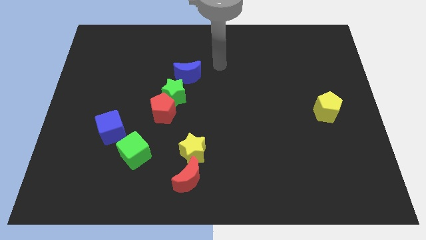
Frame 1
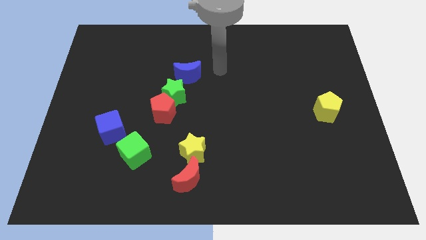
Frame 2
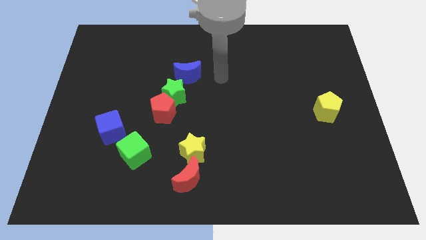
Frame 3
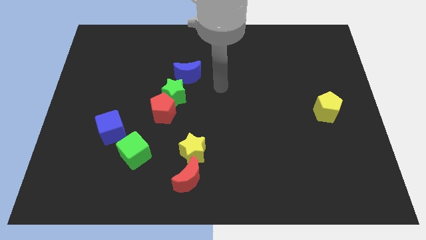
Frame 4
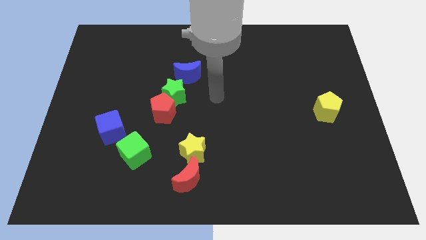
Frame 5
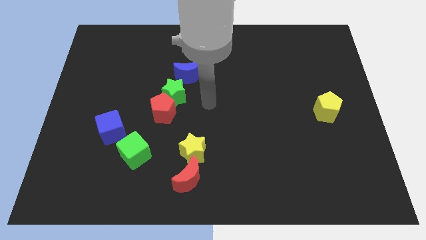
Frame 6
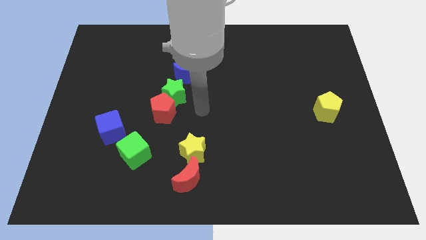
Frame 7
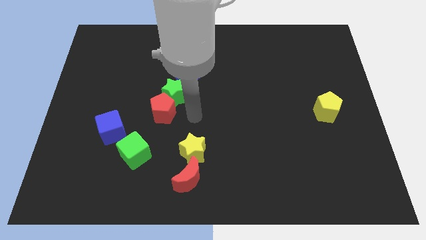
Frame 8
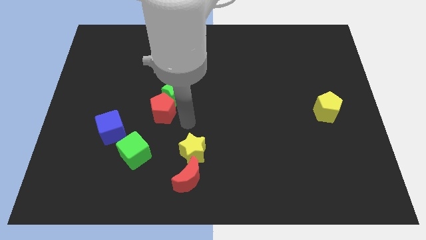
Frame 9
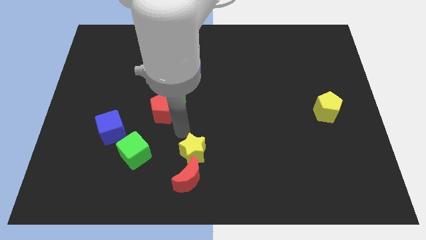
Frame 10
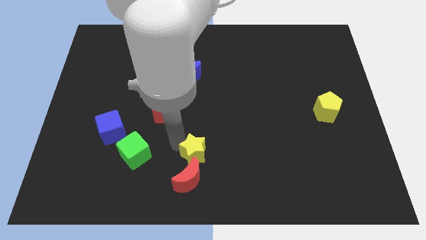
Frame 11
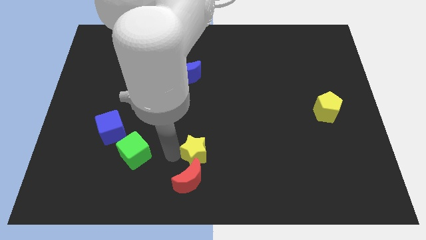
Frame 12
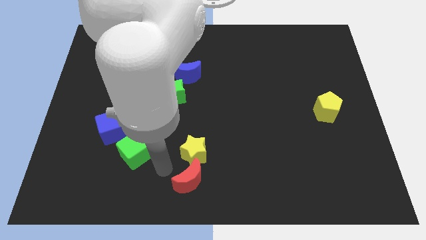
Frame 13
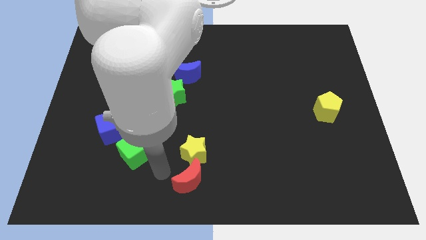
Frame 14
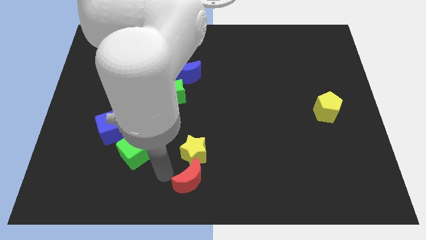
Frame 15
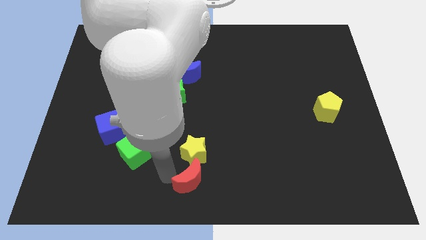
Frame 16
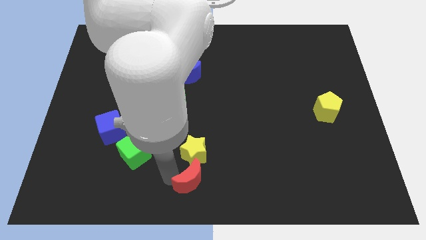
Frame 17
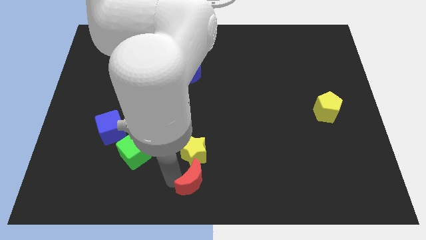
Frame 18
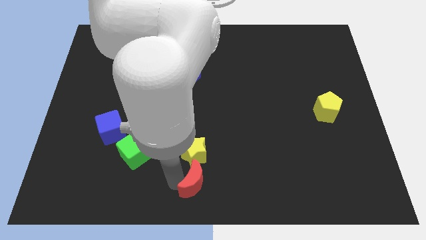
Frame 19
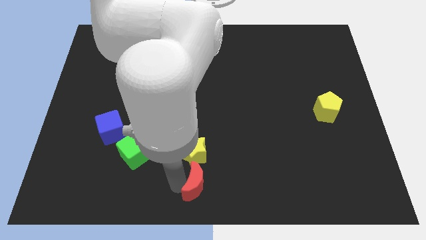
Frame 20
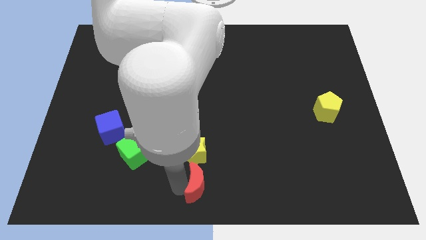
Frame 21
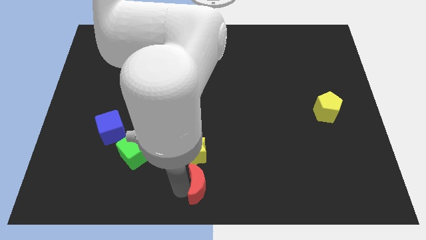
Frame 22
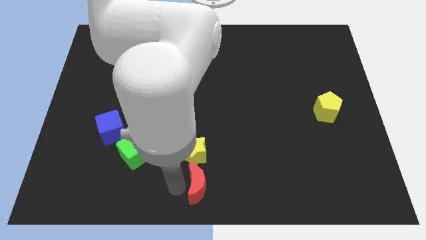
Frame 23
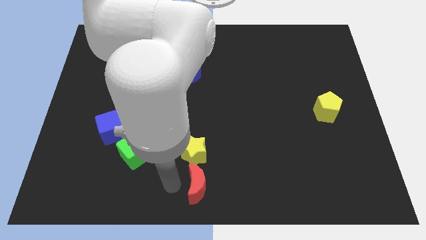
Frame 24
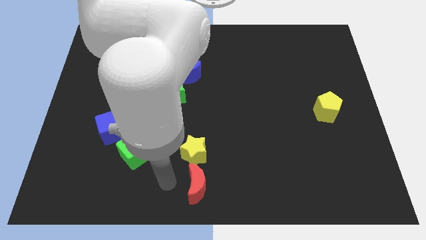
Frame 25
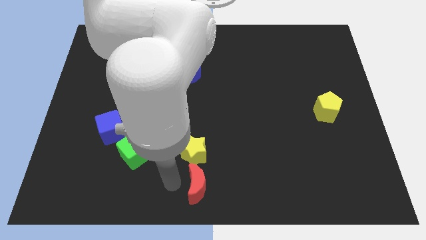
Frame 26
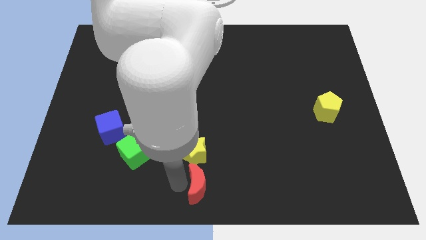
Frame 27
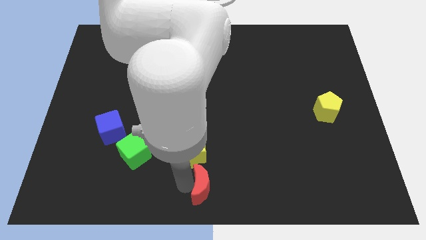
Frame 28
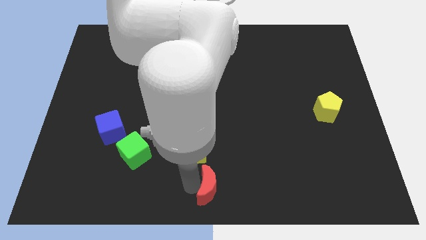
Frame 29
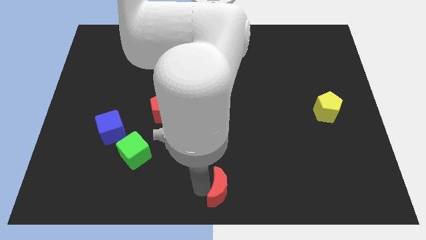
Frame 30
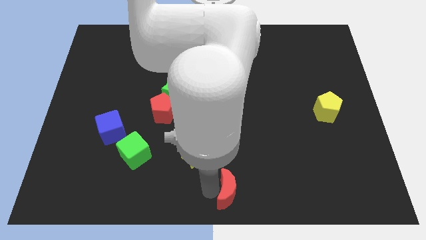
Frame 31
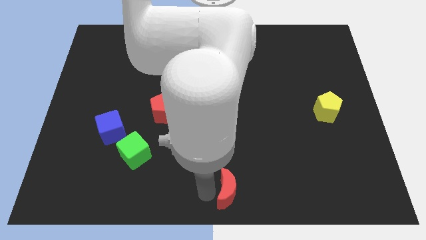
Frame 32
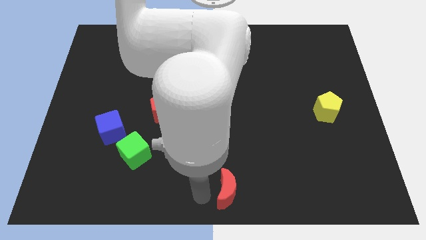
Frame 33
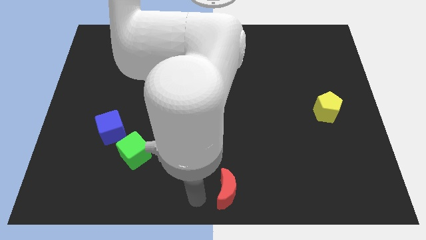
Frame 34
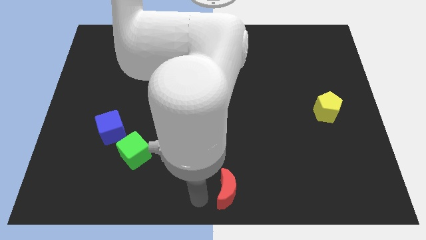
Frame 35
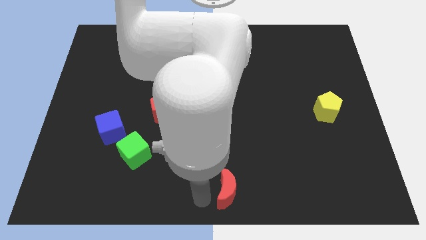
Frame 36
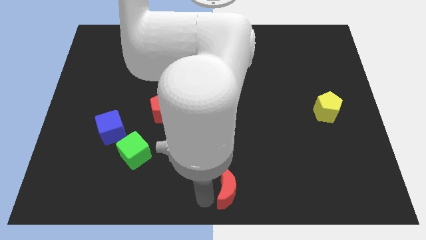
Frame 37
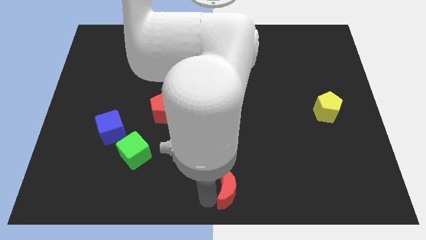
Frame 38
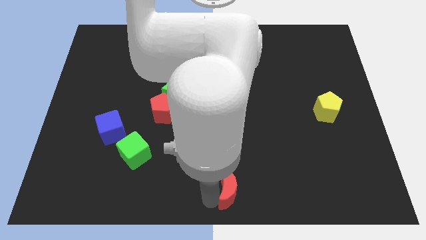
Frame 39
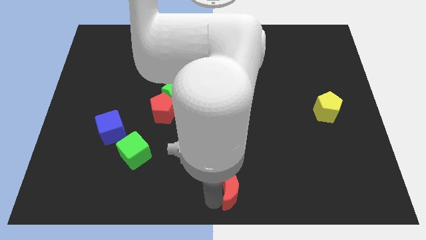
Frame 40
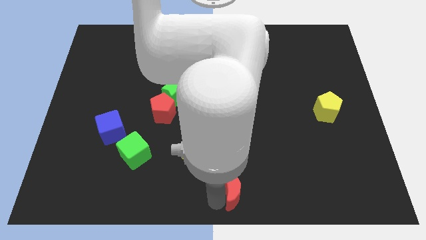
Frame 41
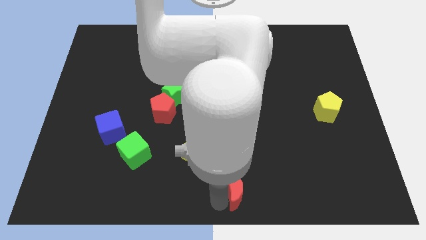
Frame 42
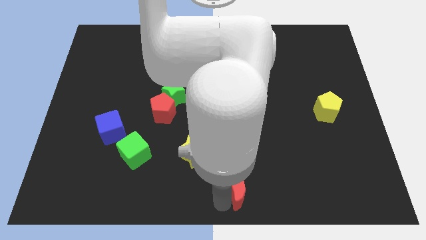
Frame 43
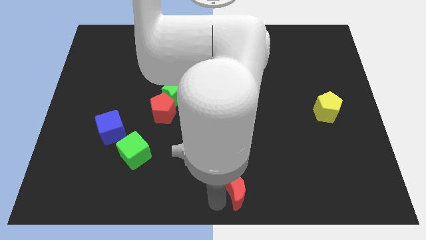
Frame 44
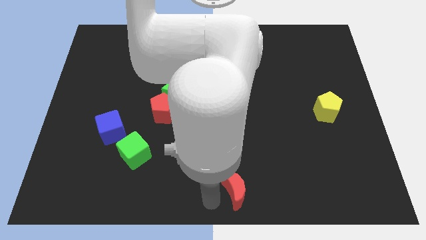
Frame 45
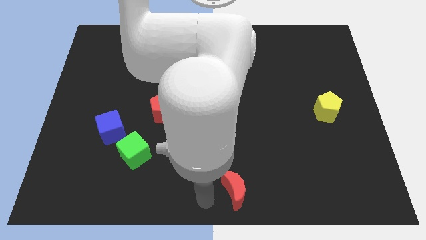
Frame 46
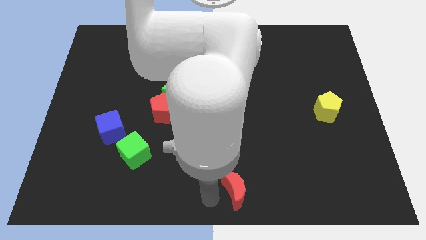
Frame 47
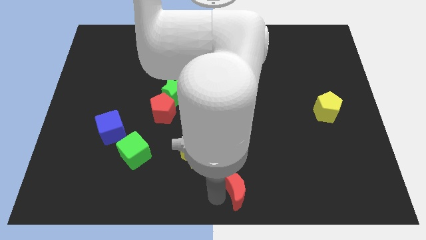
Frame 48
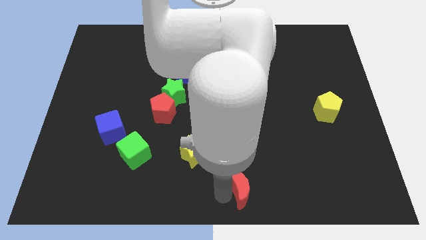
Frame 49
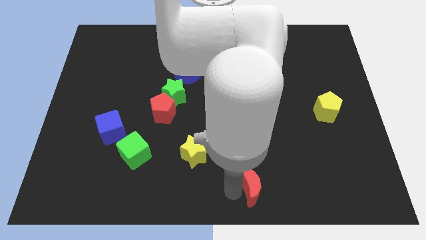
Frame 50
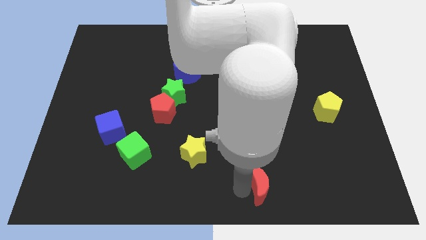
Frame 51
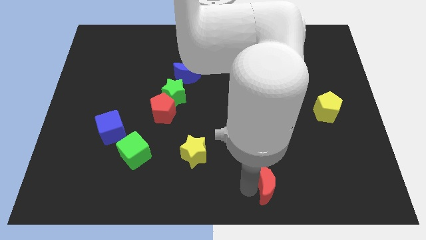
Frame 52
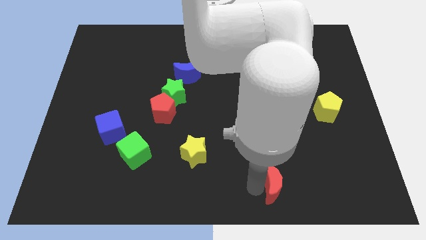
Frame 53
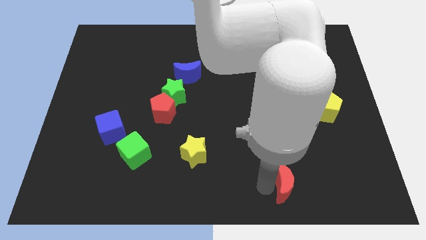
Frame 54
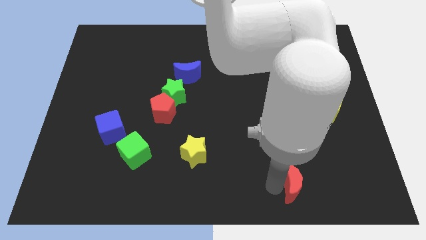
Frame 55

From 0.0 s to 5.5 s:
push the red moon right

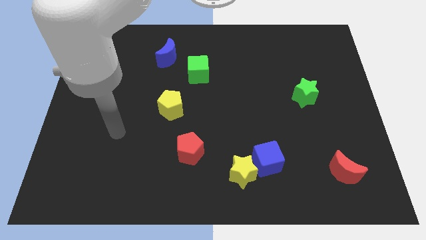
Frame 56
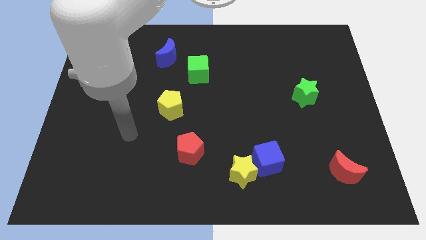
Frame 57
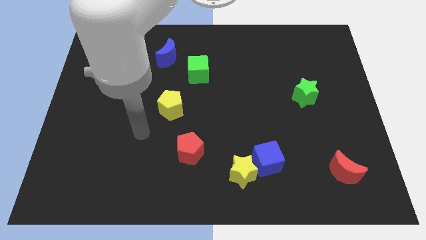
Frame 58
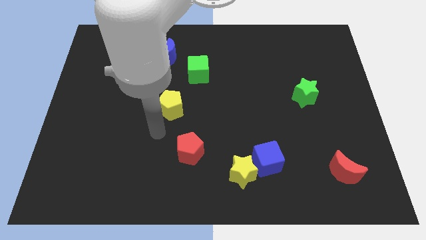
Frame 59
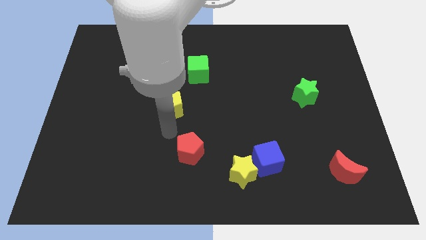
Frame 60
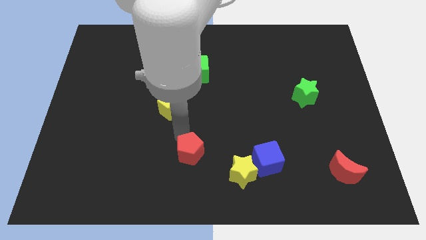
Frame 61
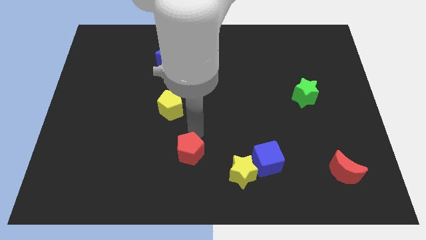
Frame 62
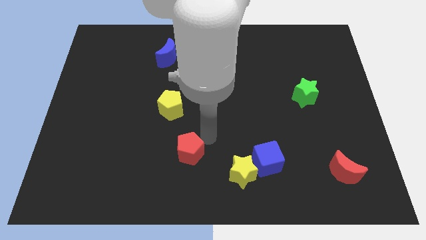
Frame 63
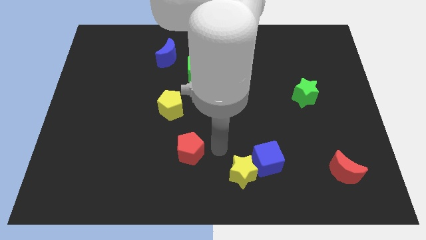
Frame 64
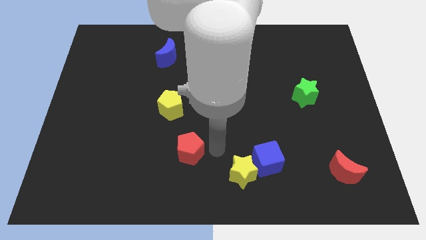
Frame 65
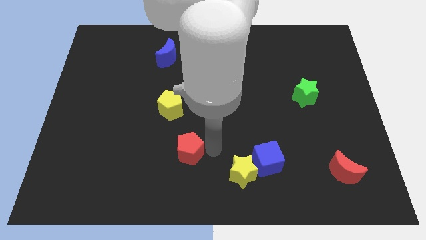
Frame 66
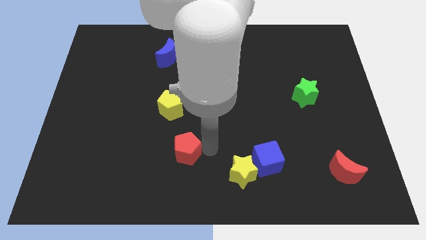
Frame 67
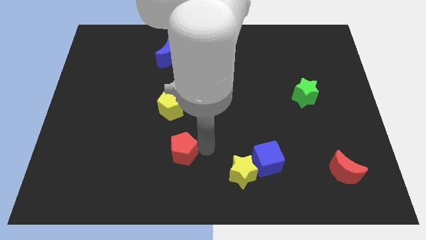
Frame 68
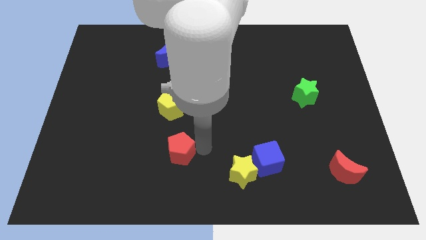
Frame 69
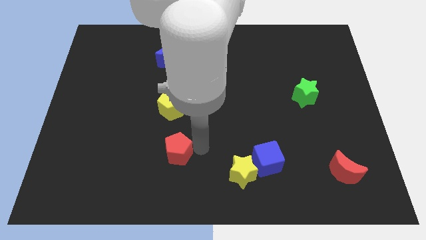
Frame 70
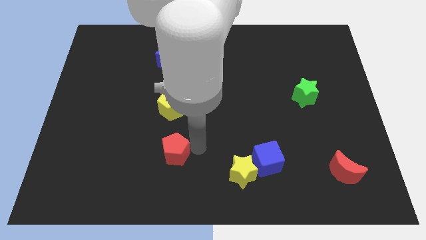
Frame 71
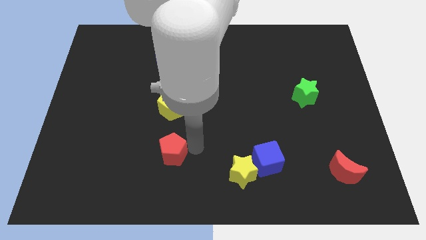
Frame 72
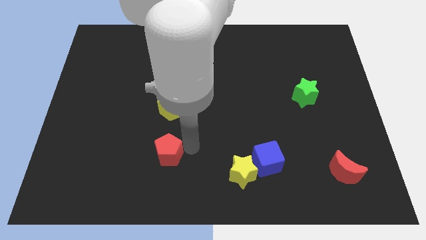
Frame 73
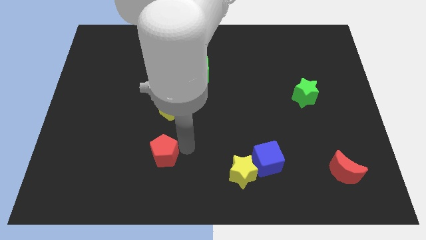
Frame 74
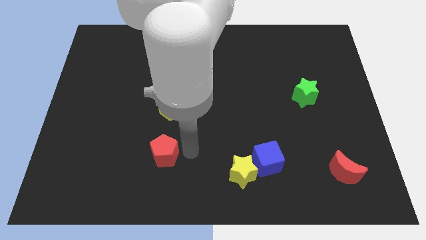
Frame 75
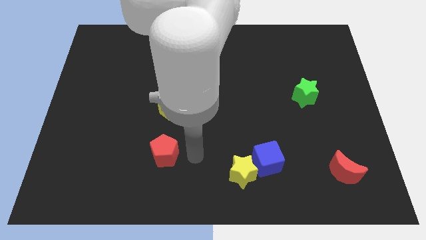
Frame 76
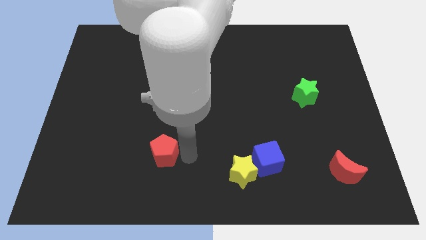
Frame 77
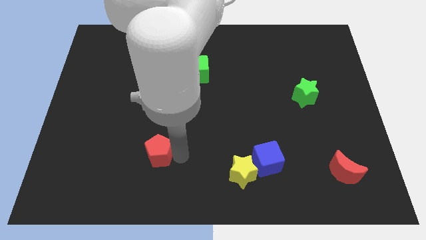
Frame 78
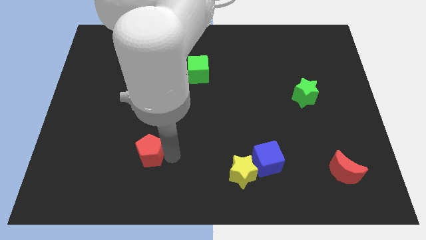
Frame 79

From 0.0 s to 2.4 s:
slide the red pentagon left somewhat
